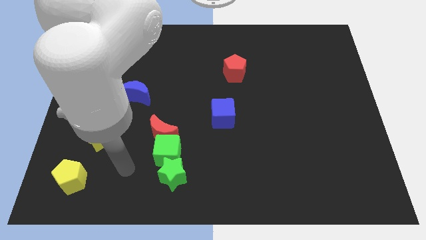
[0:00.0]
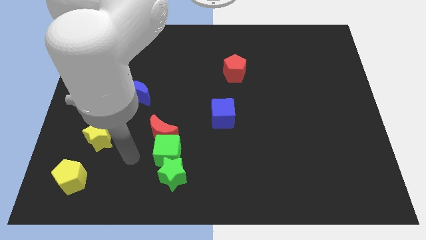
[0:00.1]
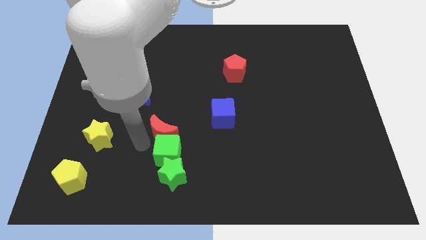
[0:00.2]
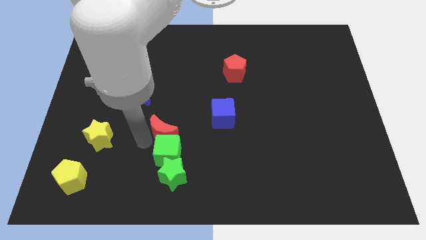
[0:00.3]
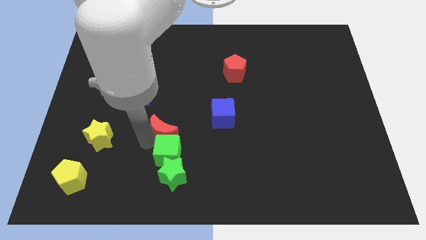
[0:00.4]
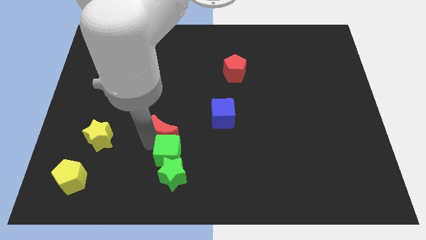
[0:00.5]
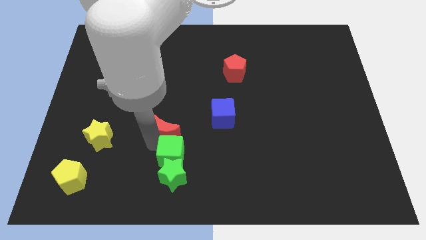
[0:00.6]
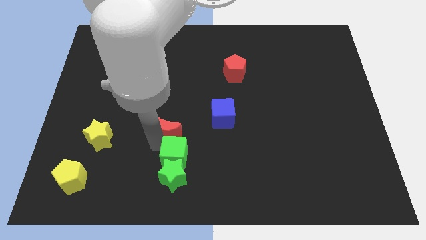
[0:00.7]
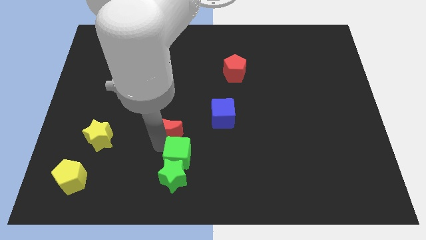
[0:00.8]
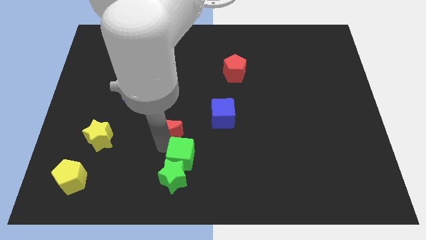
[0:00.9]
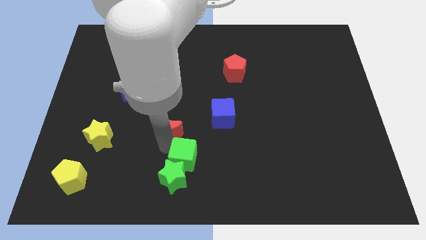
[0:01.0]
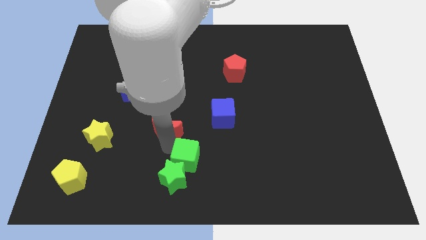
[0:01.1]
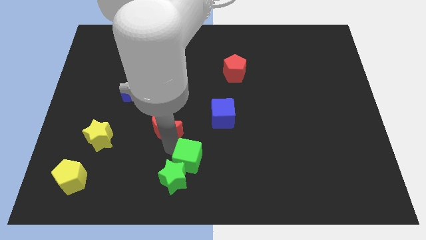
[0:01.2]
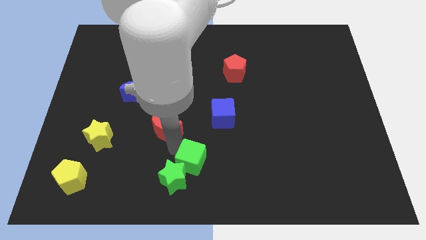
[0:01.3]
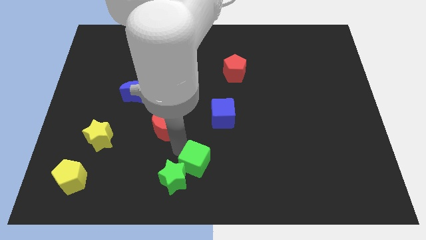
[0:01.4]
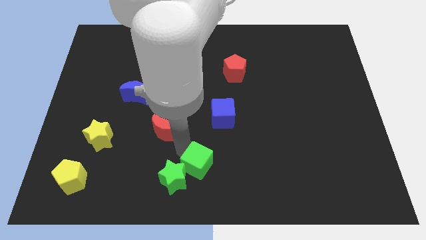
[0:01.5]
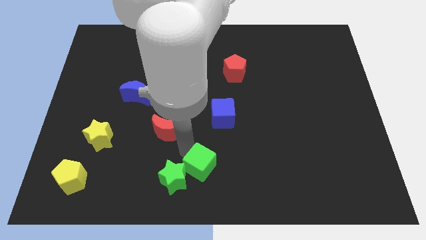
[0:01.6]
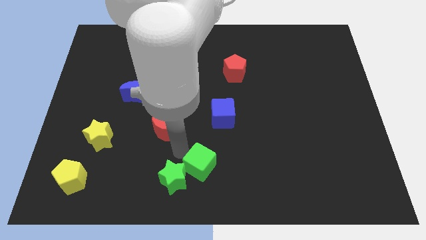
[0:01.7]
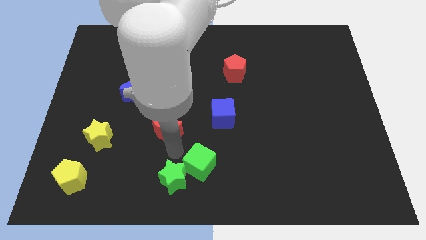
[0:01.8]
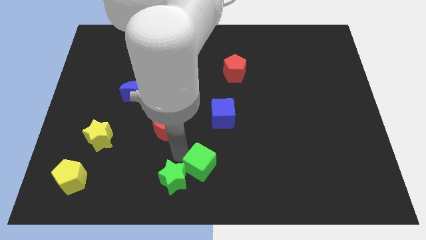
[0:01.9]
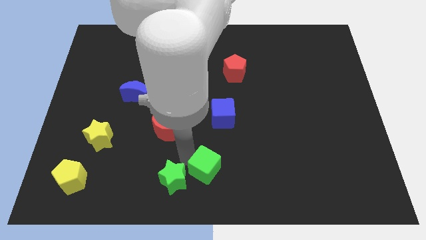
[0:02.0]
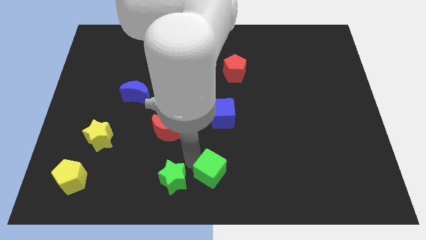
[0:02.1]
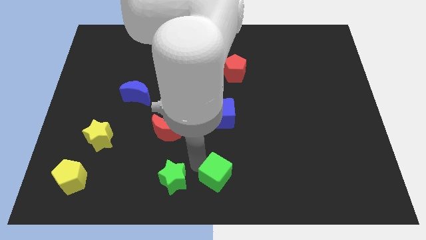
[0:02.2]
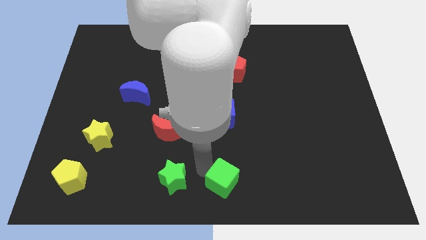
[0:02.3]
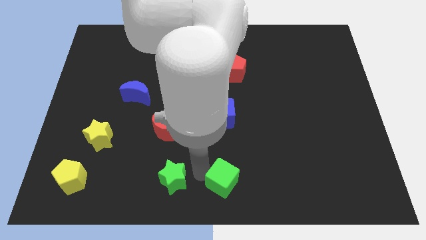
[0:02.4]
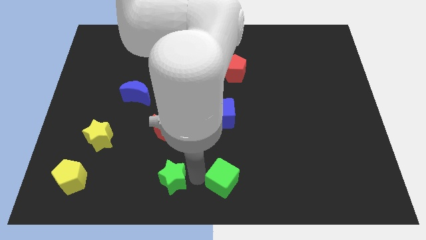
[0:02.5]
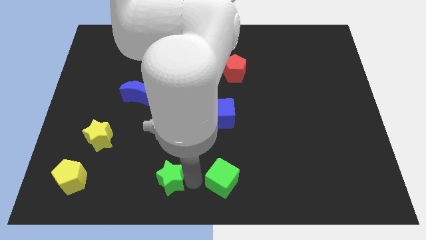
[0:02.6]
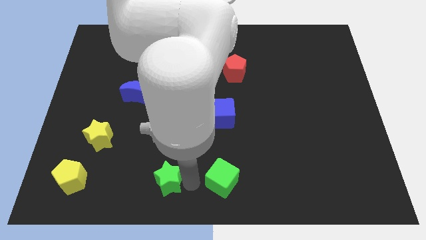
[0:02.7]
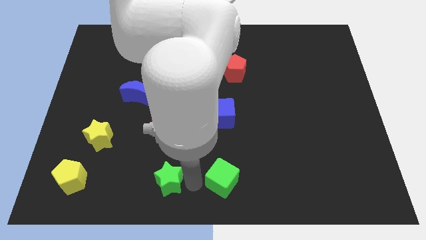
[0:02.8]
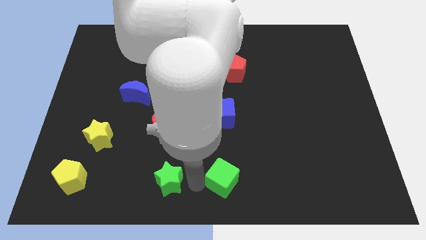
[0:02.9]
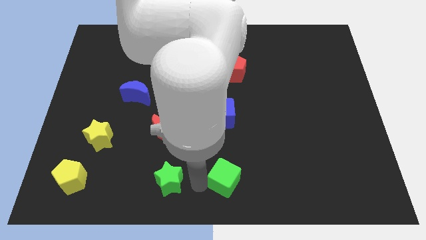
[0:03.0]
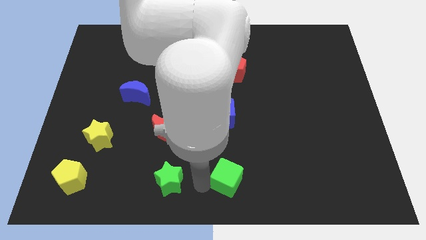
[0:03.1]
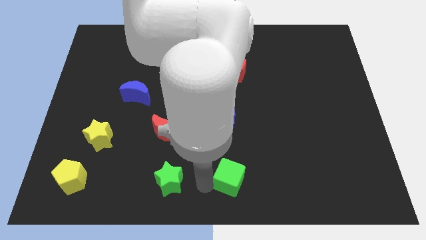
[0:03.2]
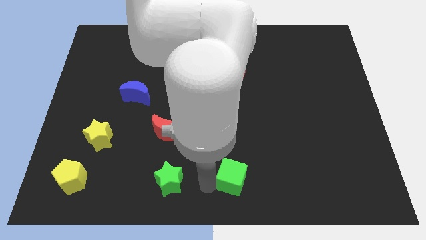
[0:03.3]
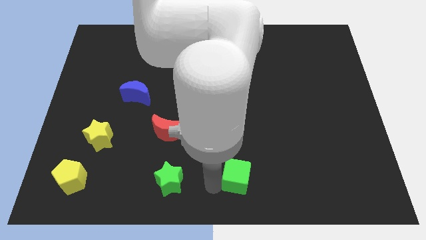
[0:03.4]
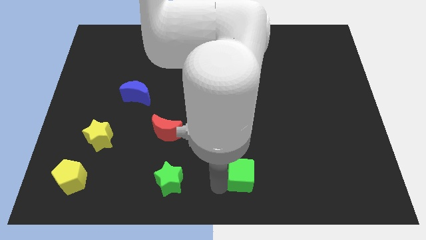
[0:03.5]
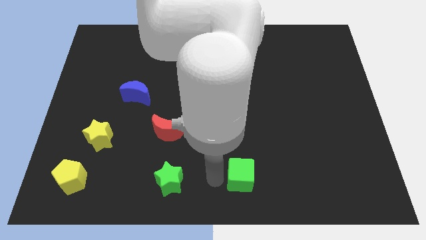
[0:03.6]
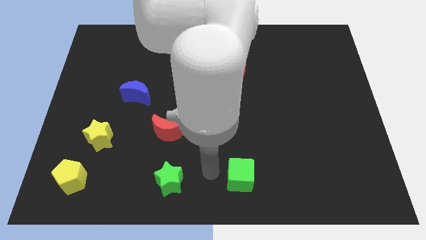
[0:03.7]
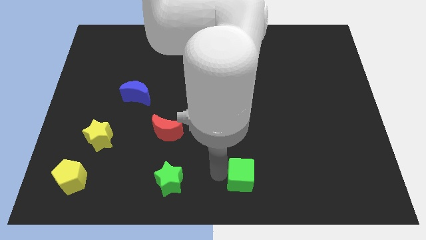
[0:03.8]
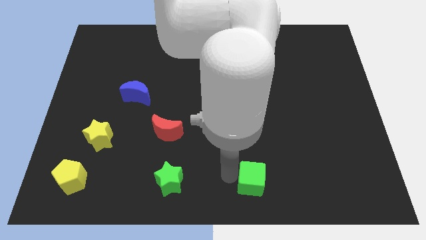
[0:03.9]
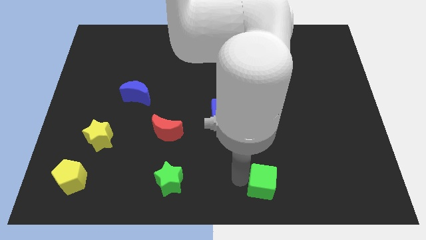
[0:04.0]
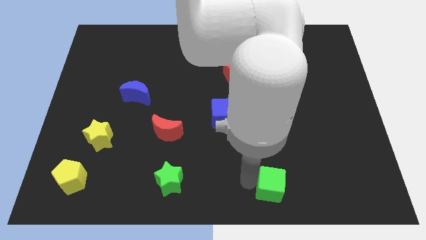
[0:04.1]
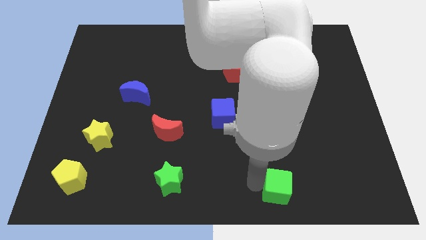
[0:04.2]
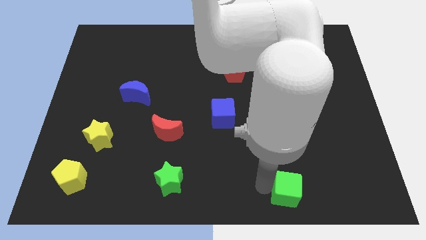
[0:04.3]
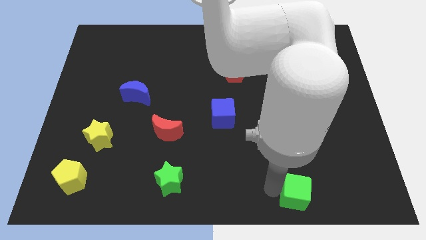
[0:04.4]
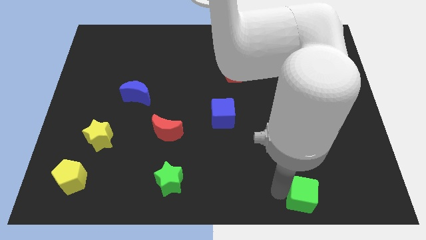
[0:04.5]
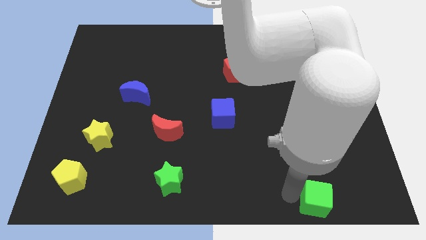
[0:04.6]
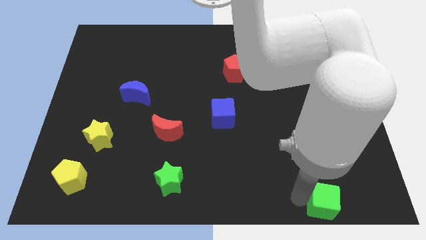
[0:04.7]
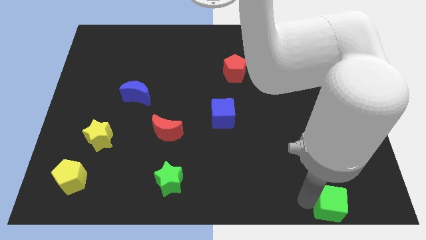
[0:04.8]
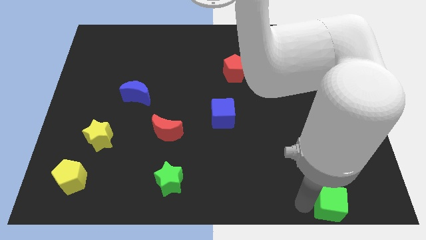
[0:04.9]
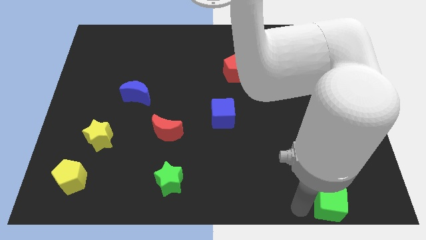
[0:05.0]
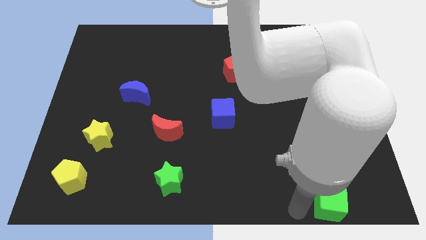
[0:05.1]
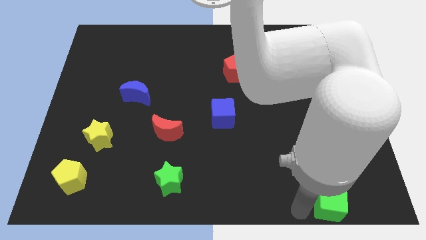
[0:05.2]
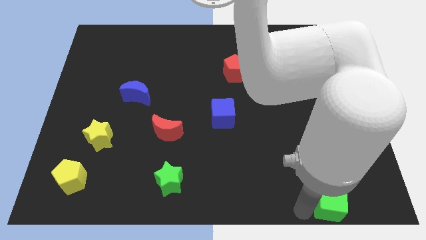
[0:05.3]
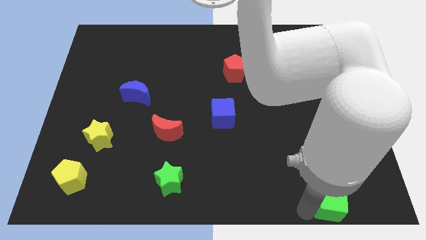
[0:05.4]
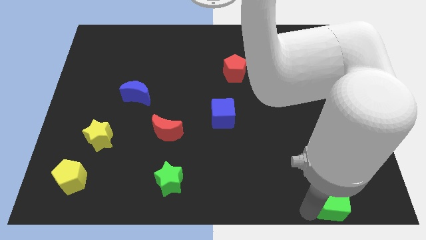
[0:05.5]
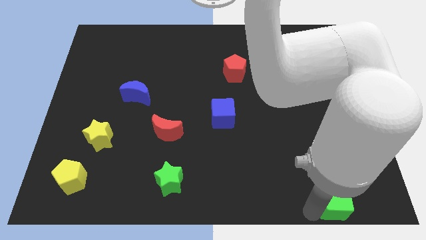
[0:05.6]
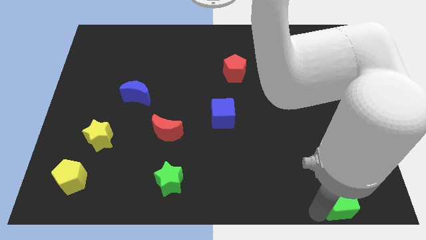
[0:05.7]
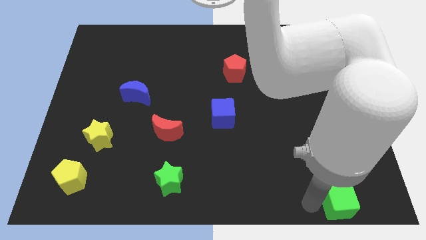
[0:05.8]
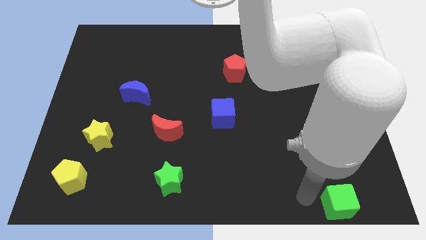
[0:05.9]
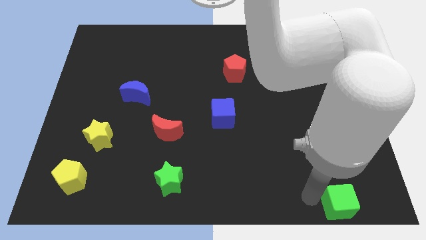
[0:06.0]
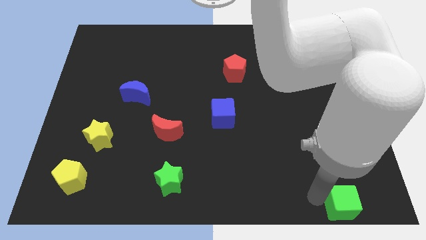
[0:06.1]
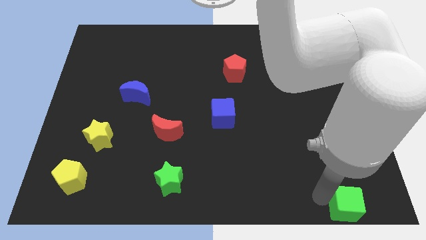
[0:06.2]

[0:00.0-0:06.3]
push the green cube to the bottom right of the board
